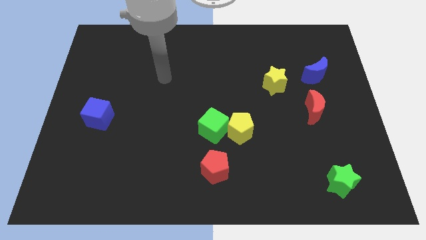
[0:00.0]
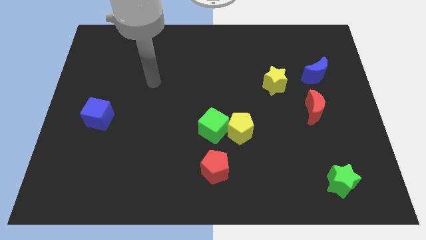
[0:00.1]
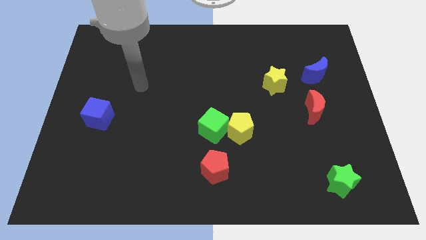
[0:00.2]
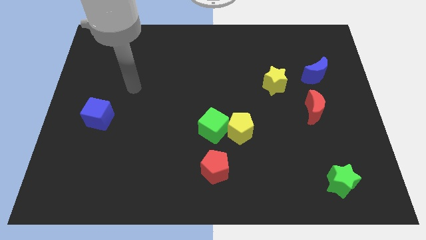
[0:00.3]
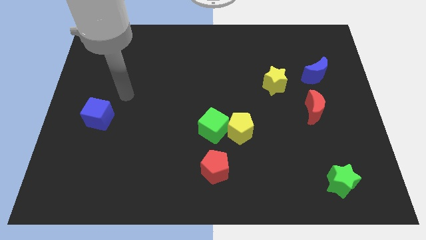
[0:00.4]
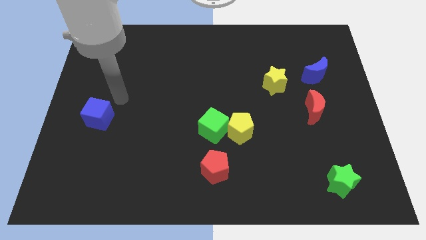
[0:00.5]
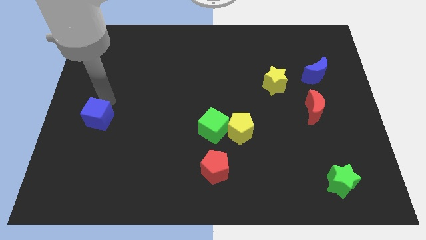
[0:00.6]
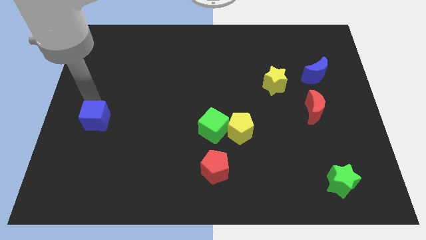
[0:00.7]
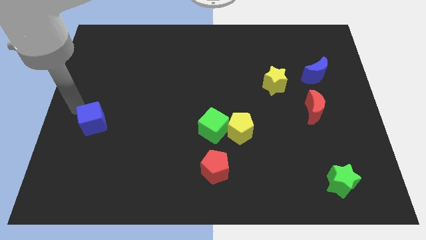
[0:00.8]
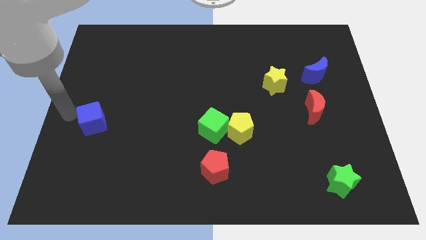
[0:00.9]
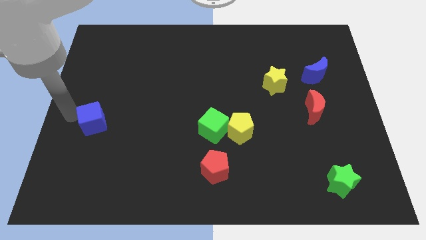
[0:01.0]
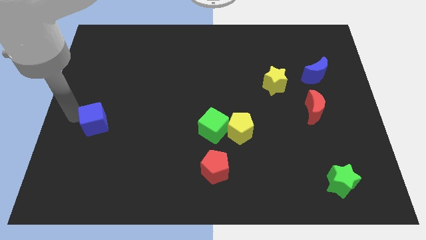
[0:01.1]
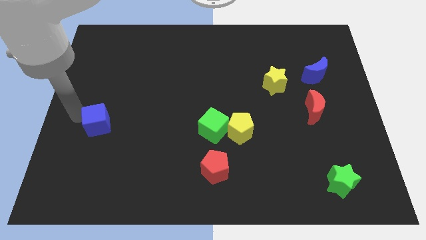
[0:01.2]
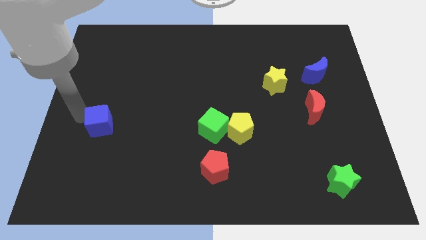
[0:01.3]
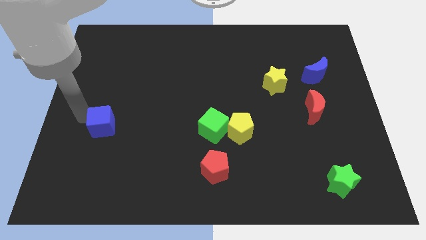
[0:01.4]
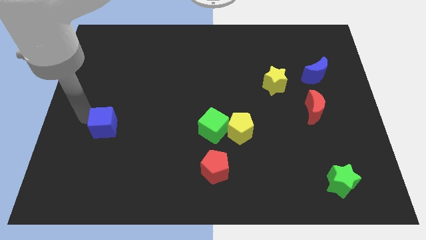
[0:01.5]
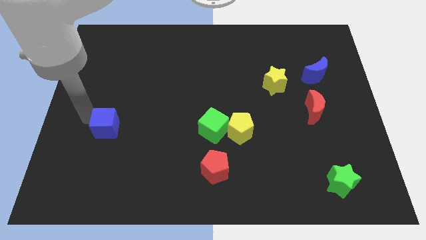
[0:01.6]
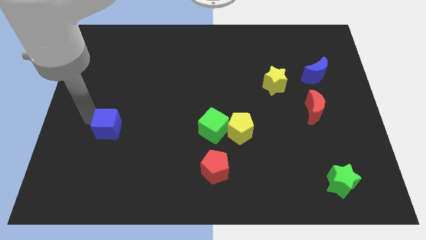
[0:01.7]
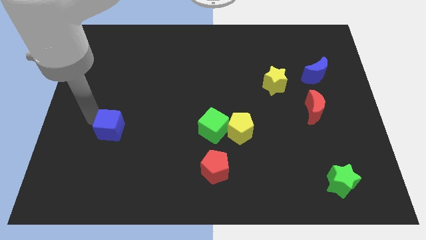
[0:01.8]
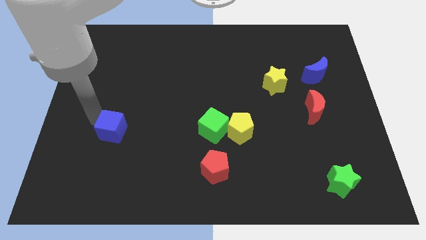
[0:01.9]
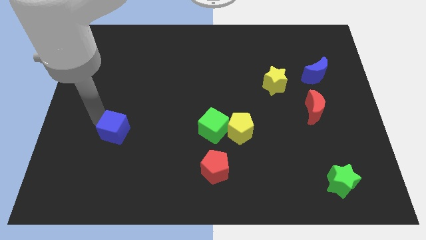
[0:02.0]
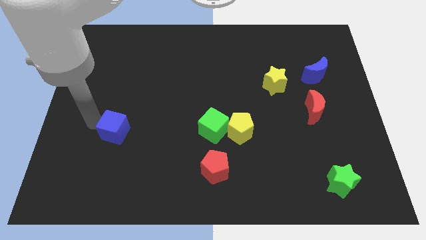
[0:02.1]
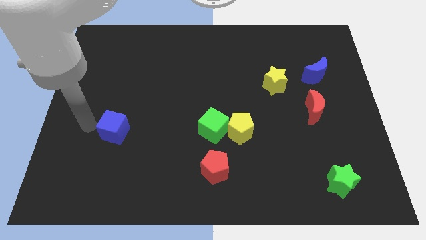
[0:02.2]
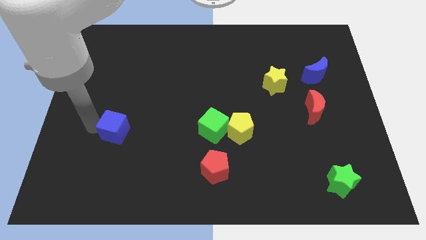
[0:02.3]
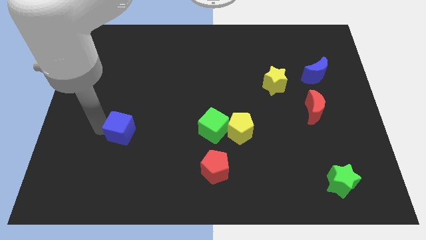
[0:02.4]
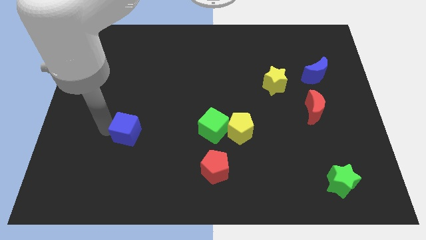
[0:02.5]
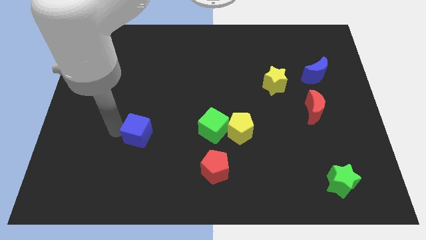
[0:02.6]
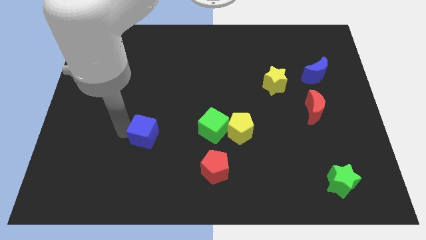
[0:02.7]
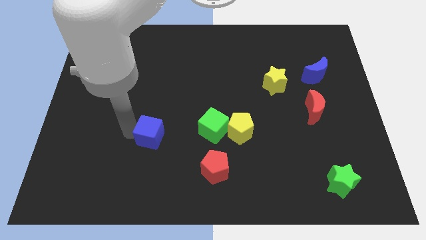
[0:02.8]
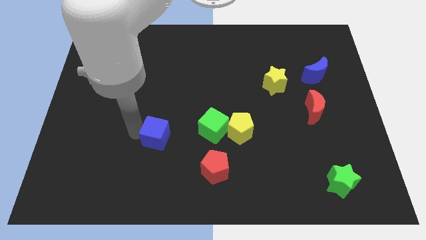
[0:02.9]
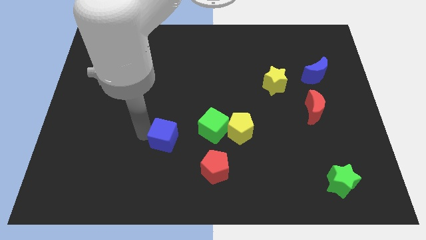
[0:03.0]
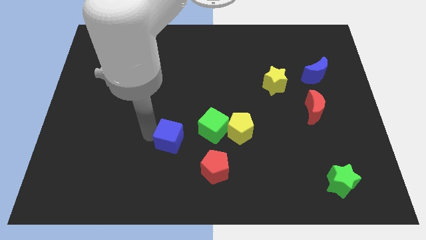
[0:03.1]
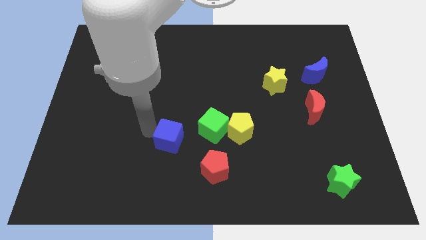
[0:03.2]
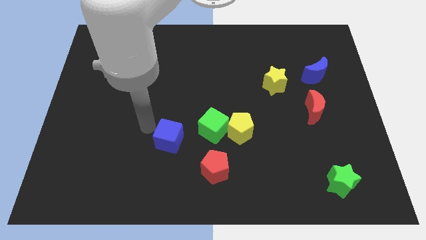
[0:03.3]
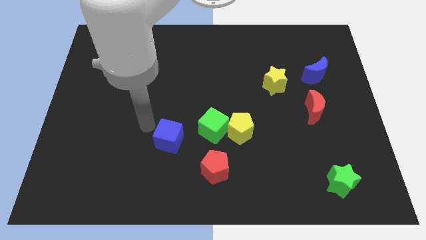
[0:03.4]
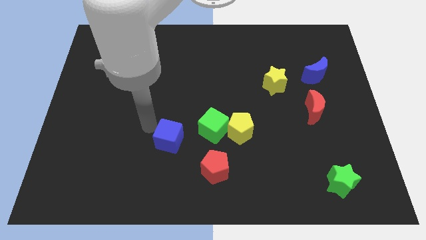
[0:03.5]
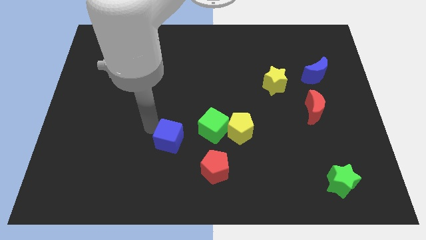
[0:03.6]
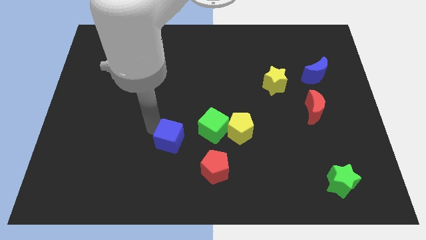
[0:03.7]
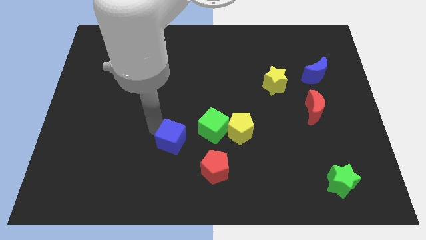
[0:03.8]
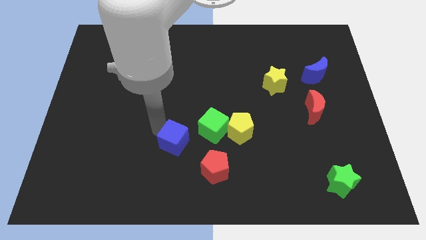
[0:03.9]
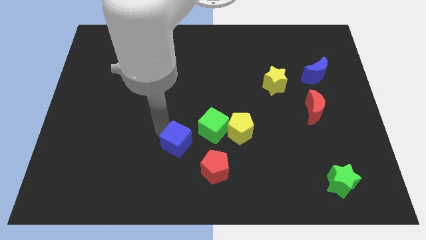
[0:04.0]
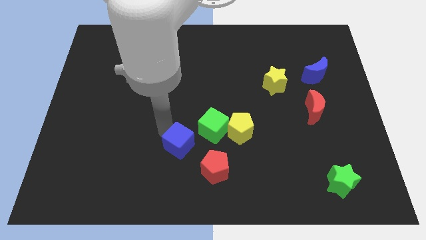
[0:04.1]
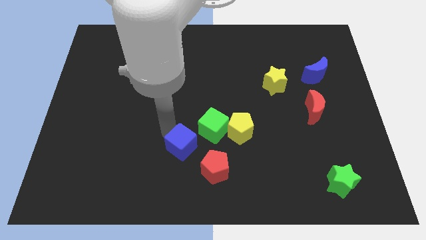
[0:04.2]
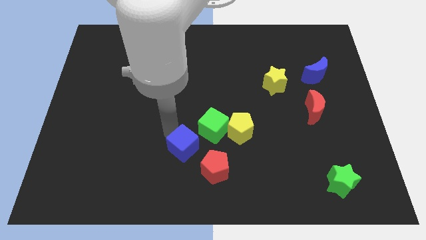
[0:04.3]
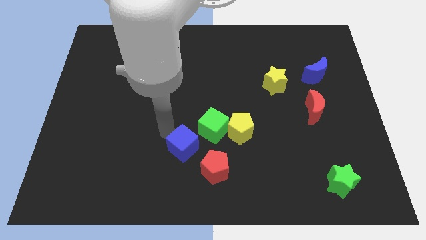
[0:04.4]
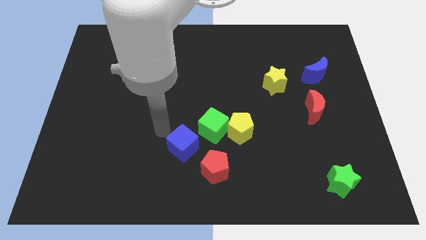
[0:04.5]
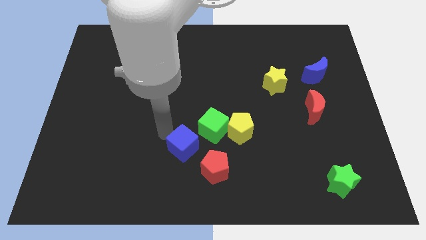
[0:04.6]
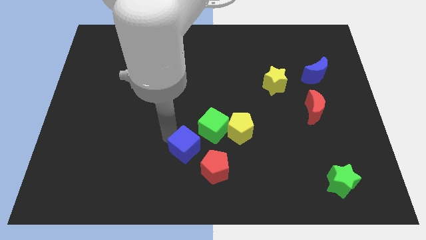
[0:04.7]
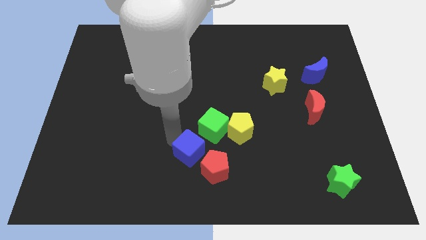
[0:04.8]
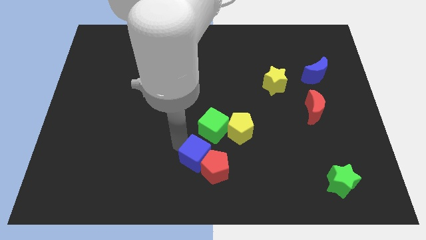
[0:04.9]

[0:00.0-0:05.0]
slide the blue cube to the red pentagon

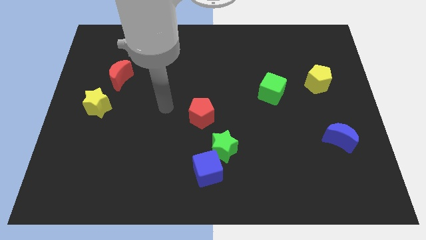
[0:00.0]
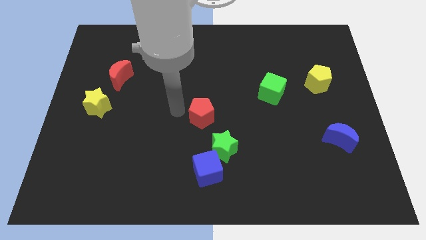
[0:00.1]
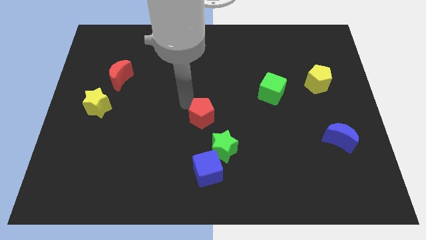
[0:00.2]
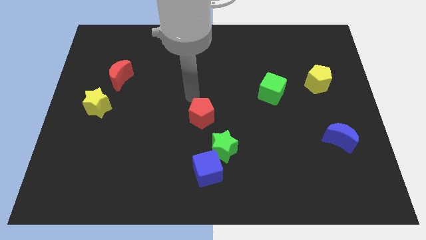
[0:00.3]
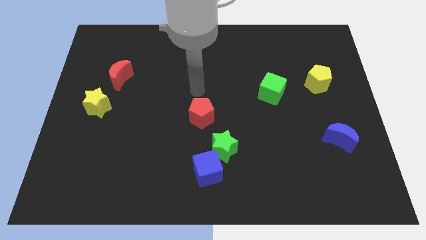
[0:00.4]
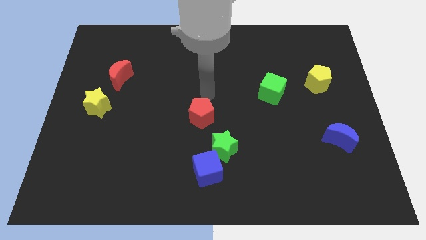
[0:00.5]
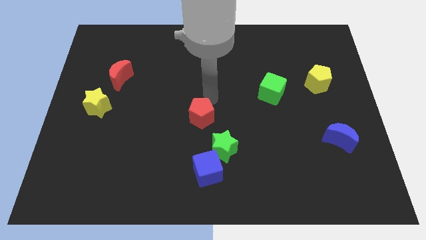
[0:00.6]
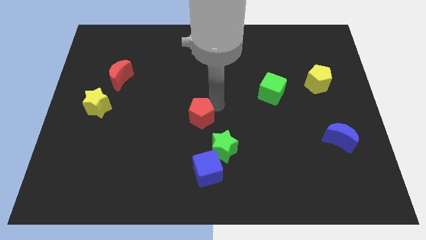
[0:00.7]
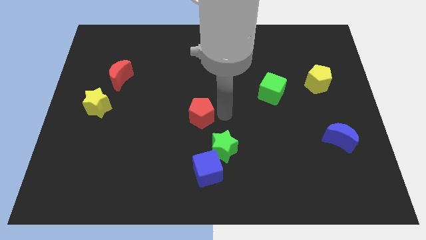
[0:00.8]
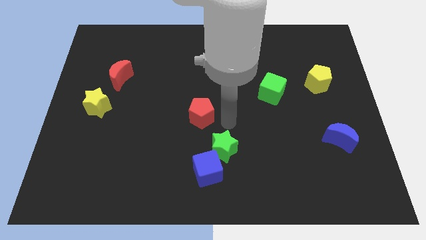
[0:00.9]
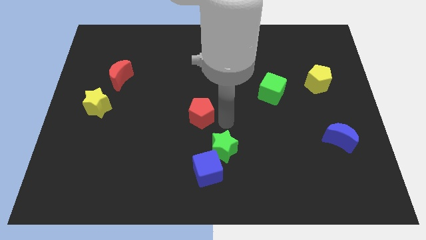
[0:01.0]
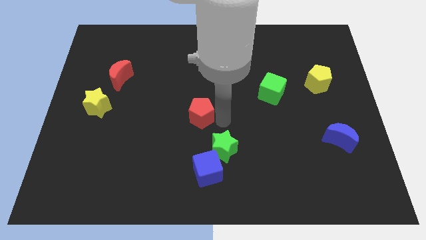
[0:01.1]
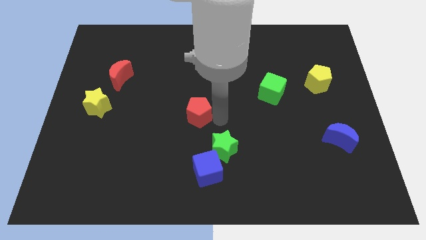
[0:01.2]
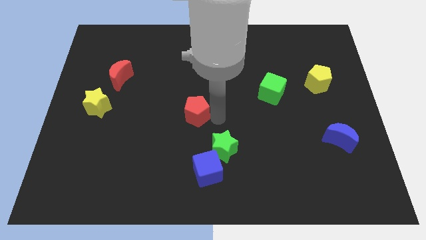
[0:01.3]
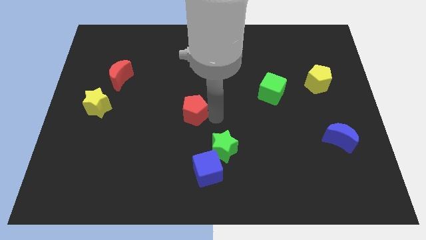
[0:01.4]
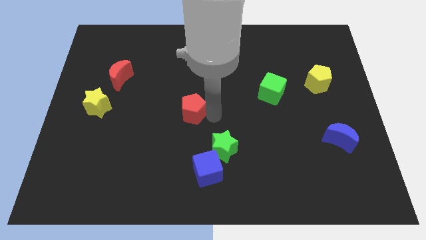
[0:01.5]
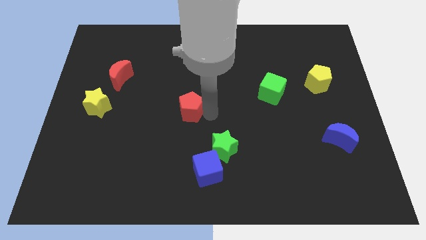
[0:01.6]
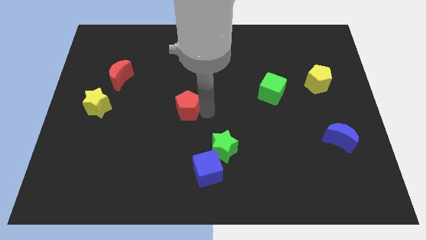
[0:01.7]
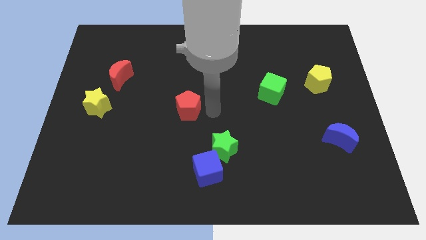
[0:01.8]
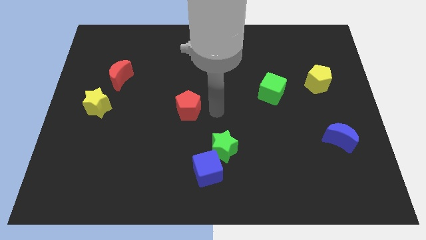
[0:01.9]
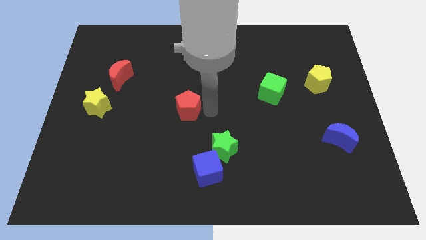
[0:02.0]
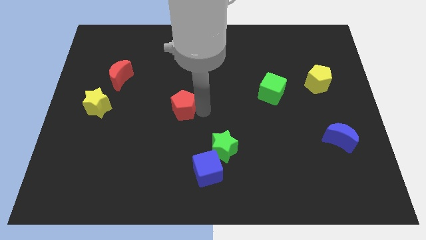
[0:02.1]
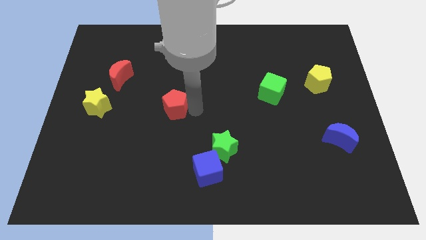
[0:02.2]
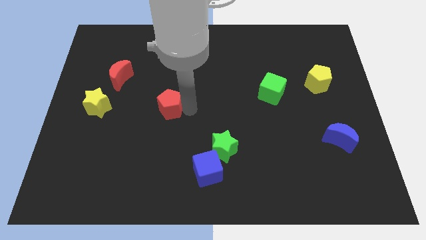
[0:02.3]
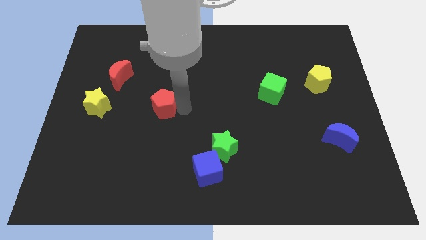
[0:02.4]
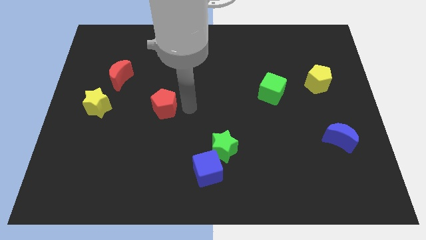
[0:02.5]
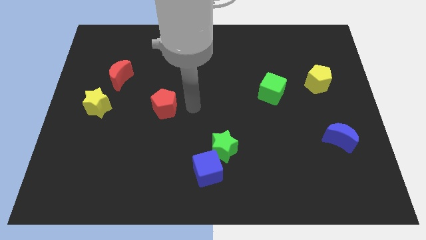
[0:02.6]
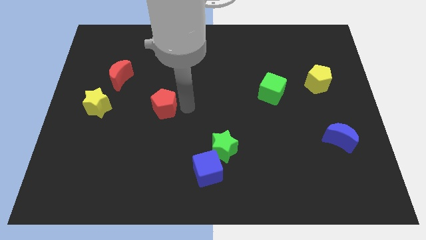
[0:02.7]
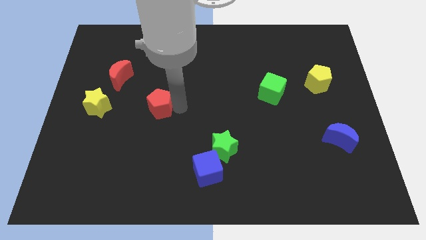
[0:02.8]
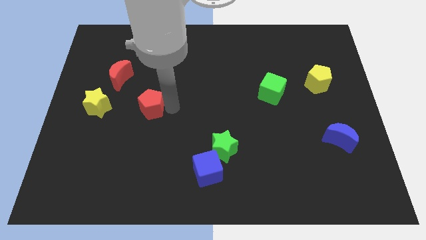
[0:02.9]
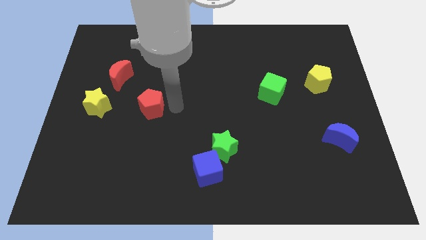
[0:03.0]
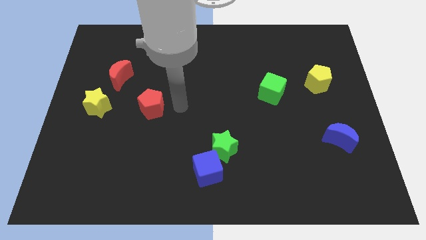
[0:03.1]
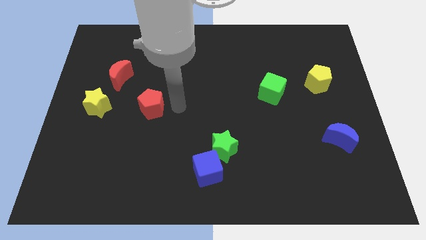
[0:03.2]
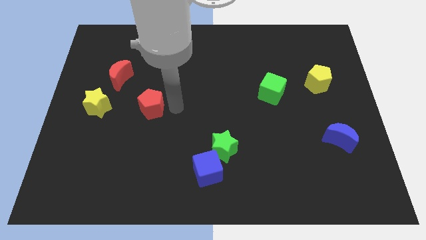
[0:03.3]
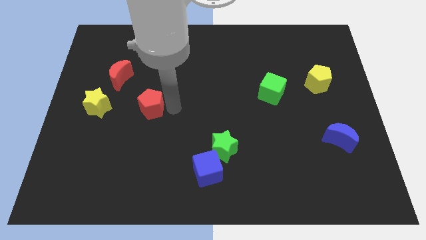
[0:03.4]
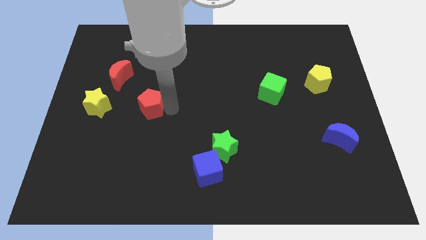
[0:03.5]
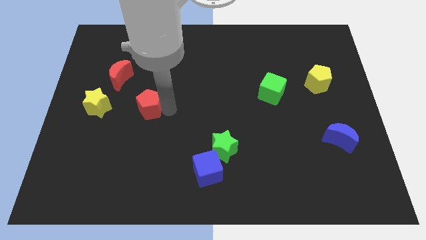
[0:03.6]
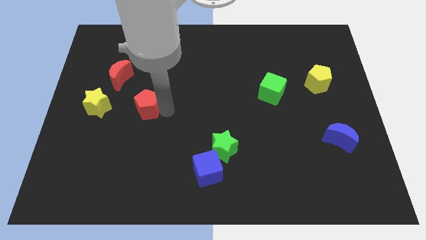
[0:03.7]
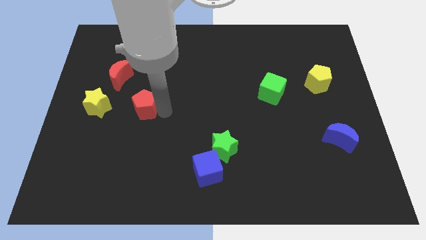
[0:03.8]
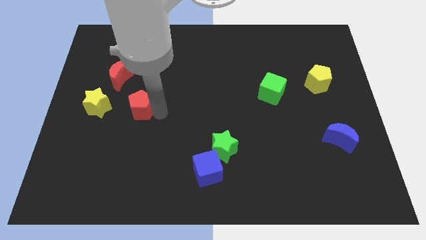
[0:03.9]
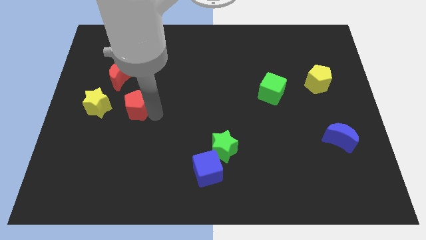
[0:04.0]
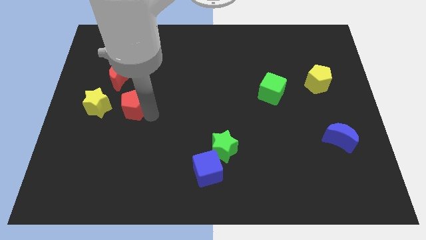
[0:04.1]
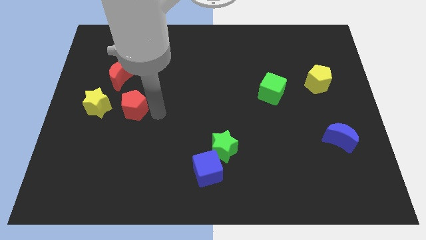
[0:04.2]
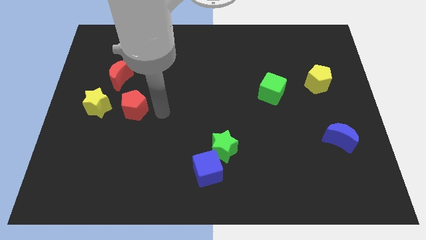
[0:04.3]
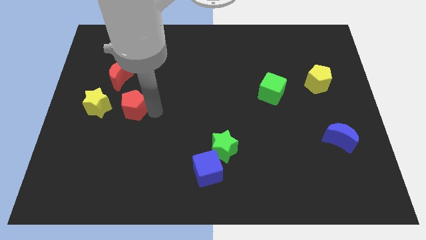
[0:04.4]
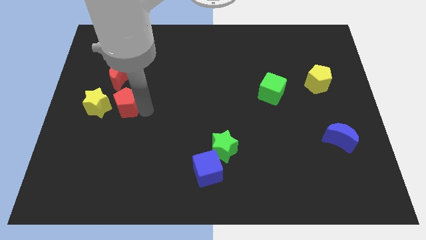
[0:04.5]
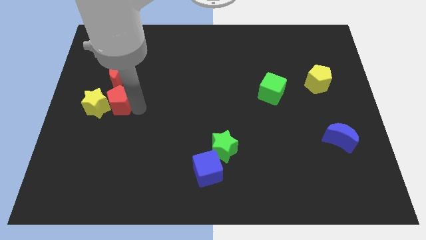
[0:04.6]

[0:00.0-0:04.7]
put the red pentagon next to the yellow star
